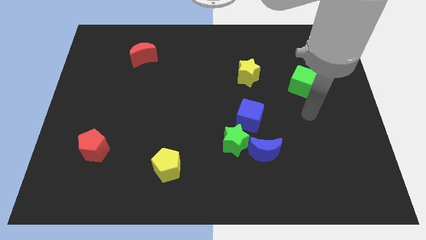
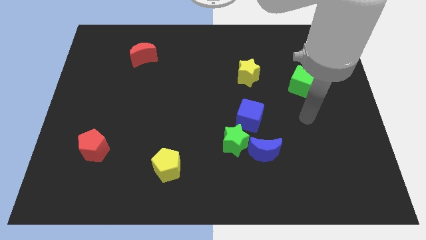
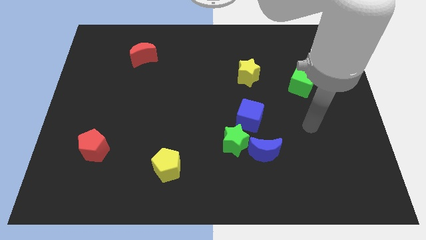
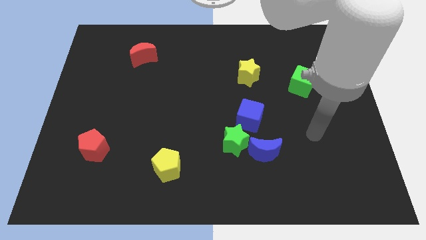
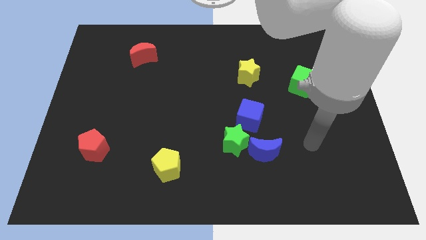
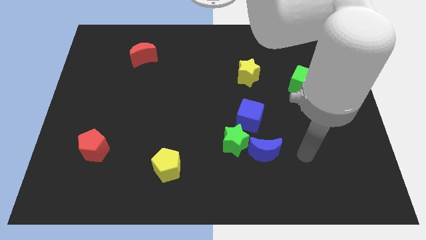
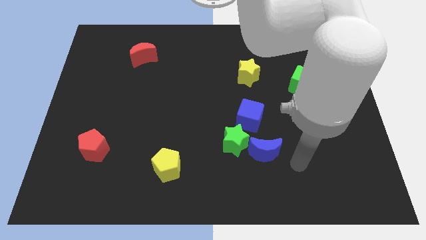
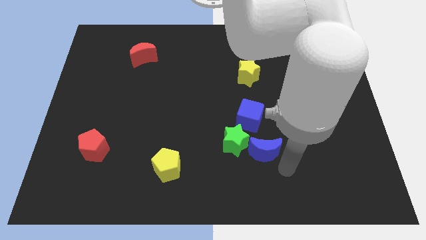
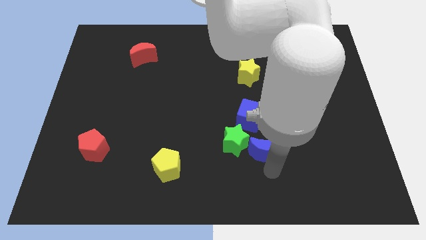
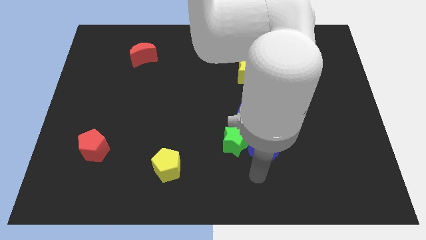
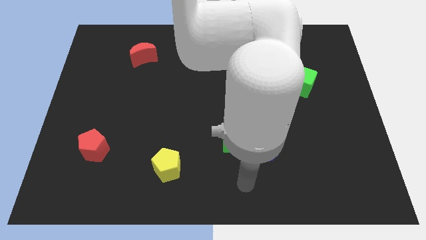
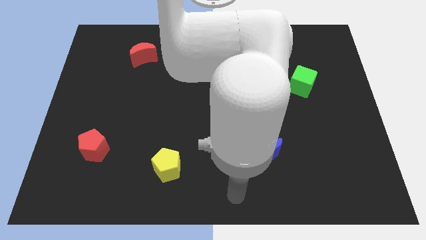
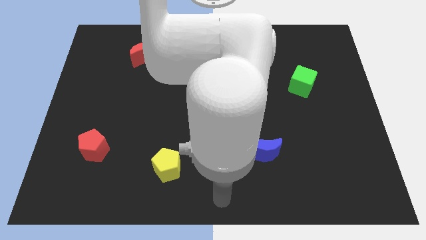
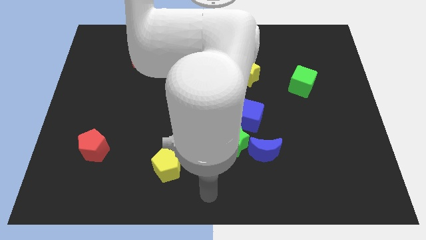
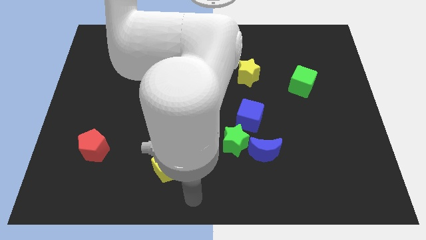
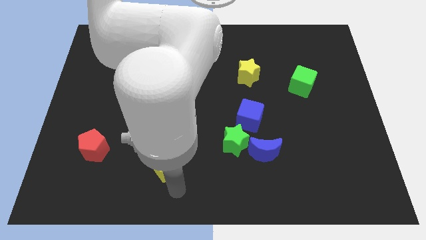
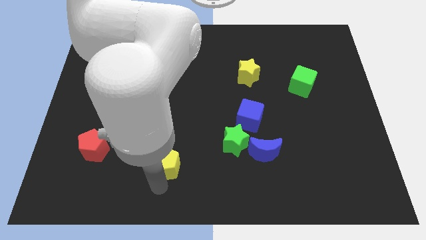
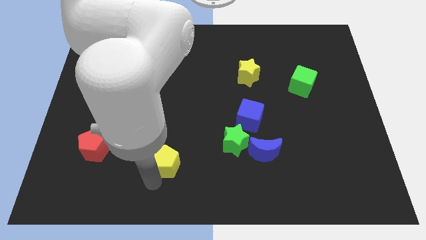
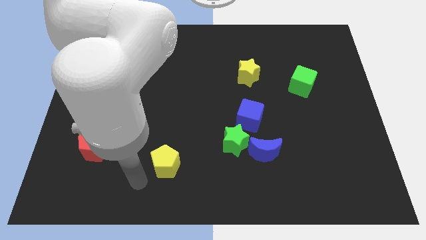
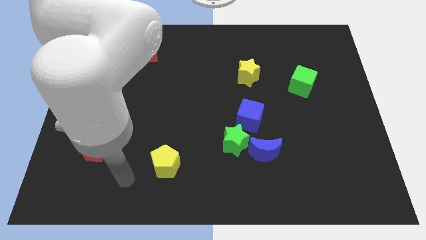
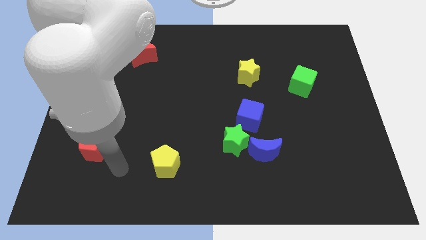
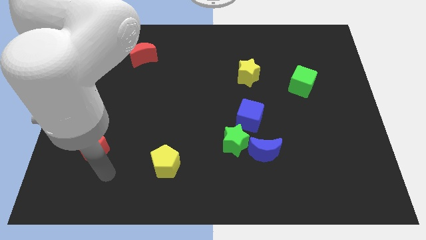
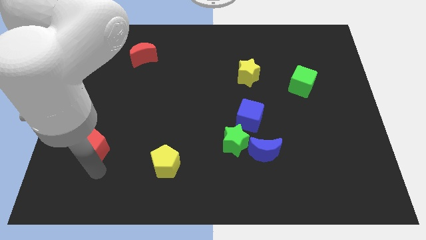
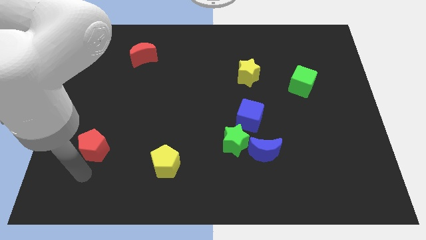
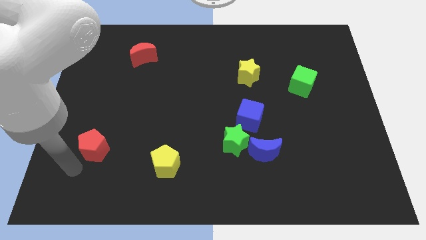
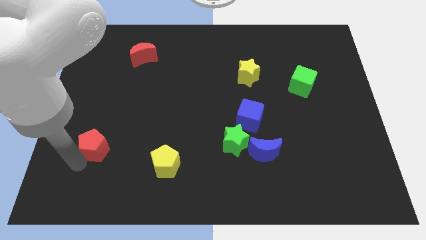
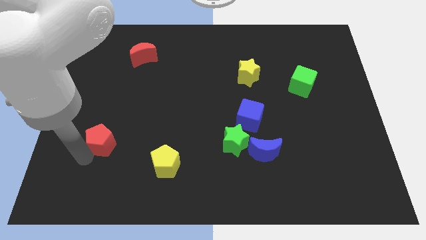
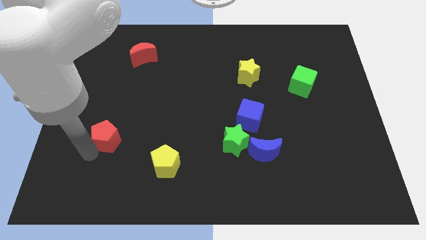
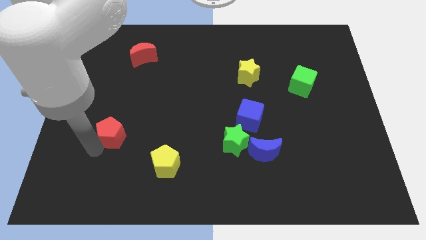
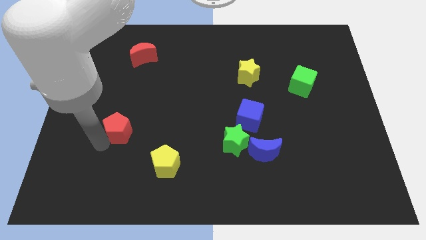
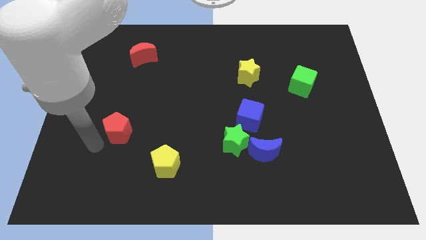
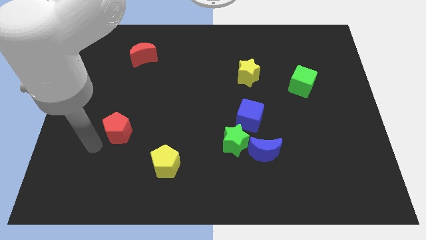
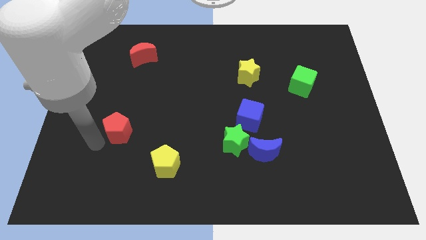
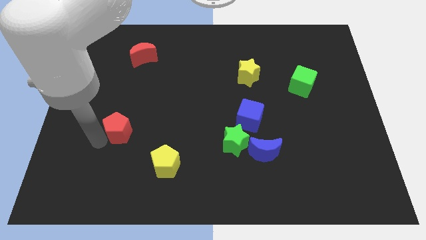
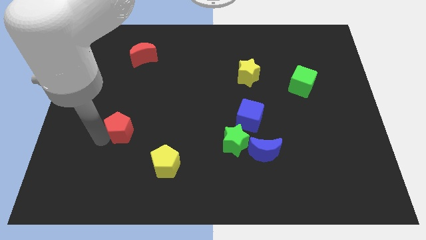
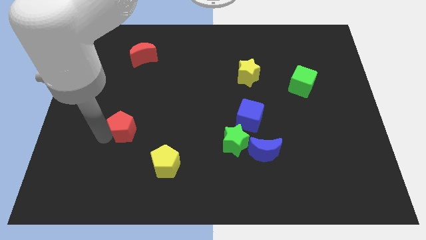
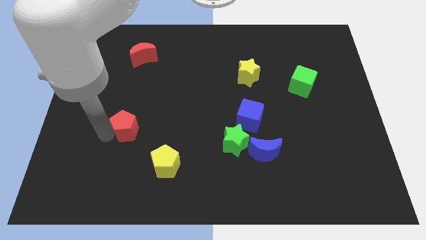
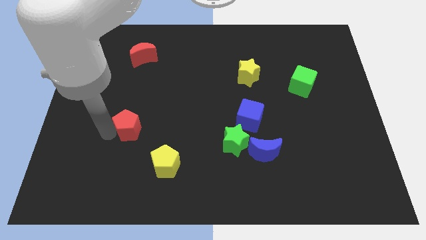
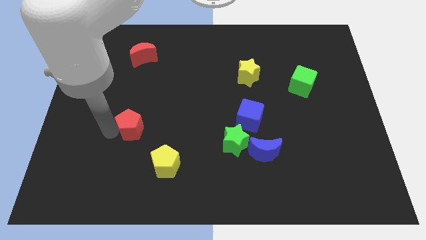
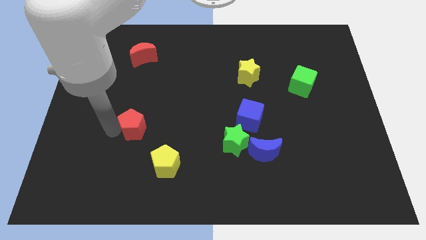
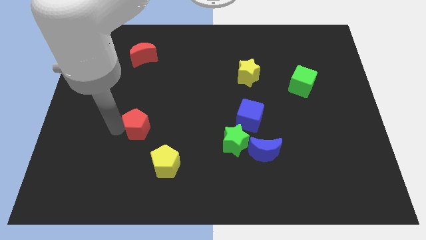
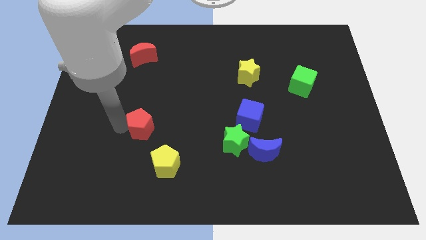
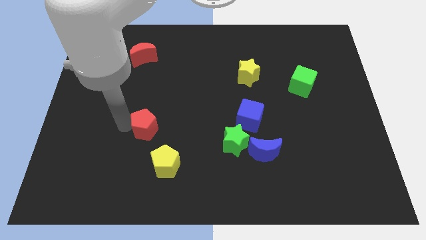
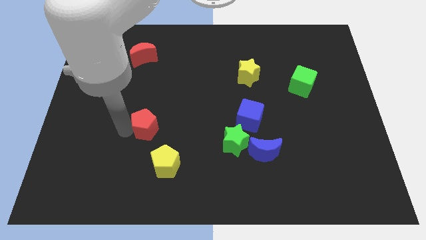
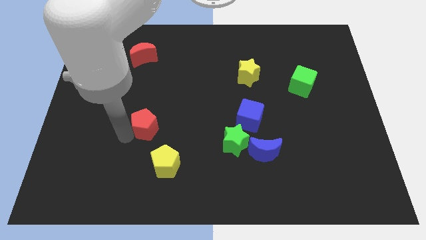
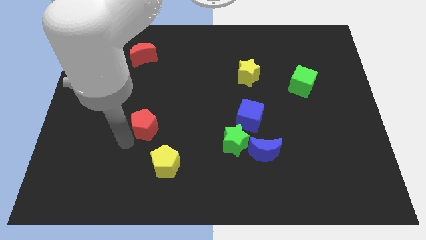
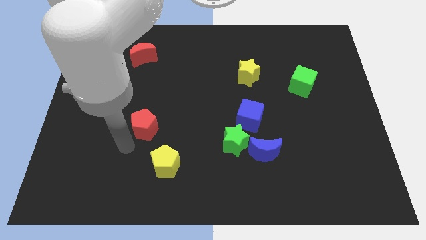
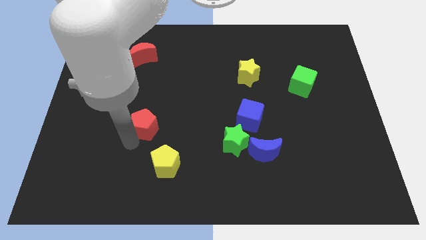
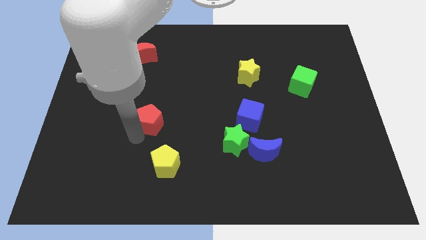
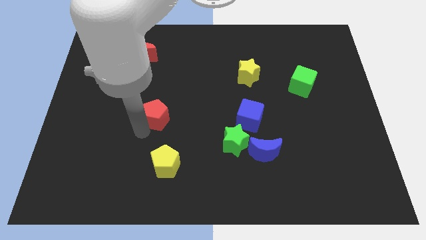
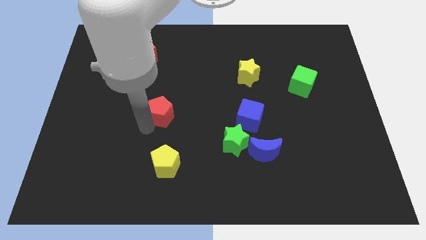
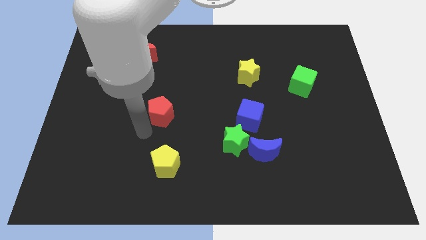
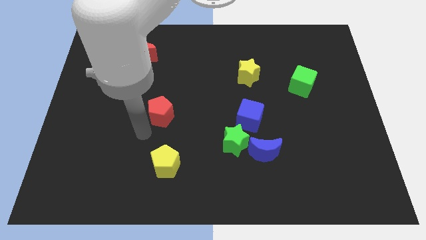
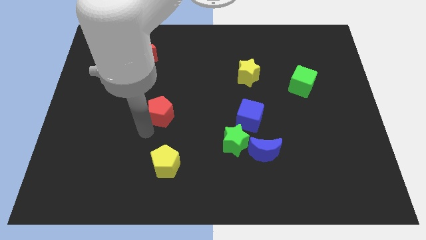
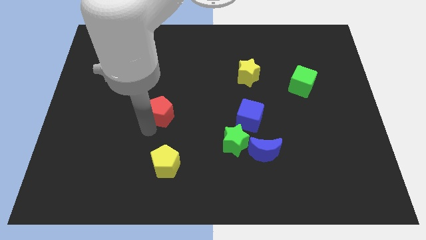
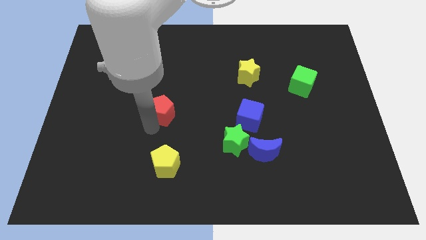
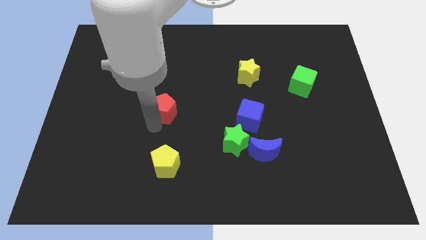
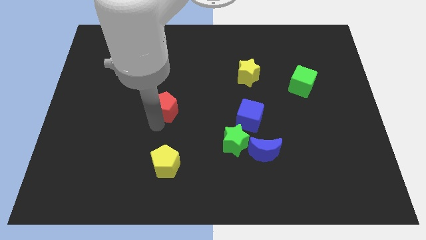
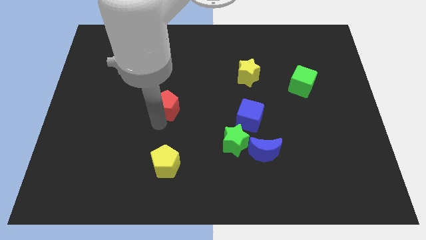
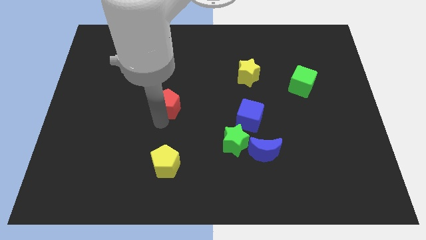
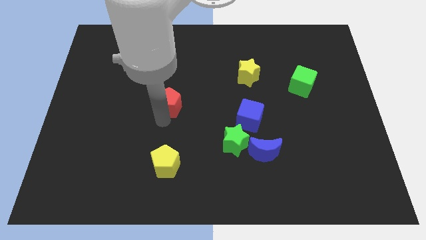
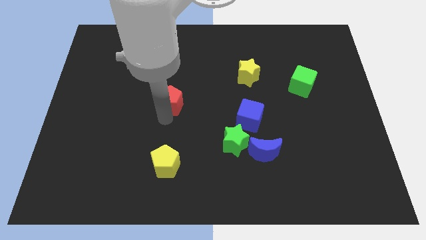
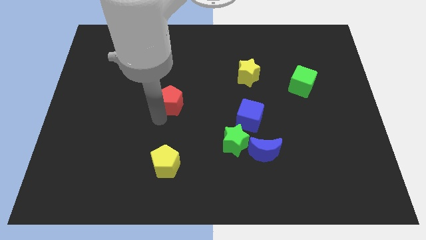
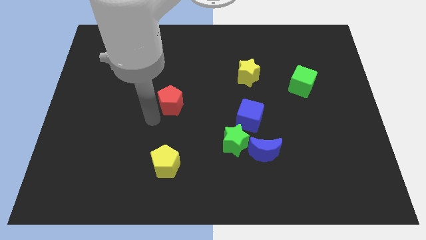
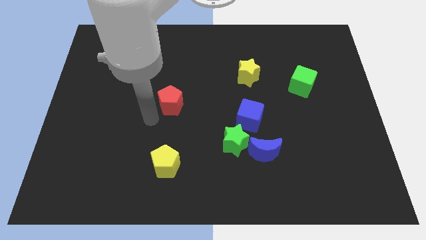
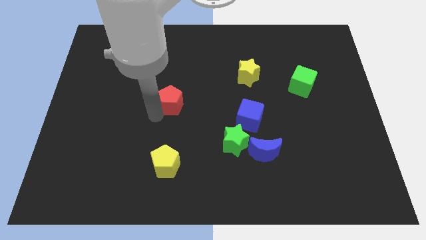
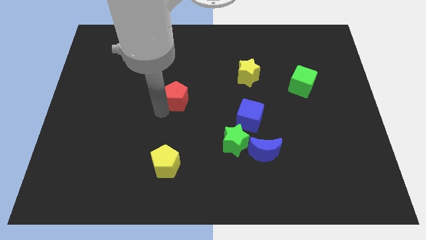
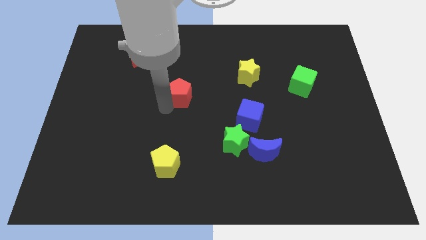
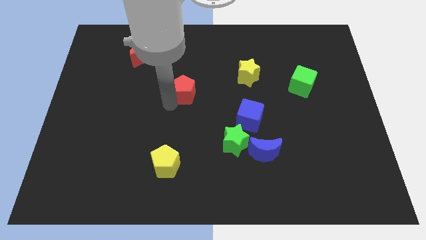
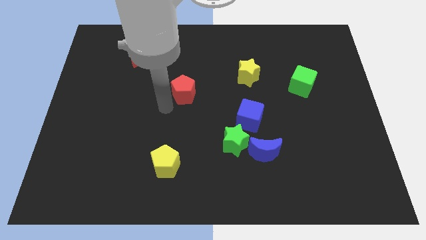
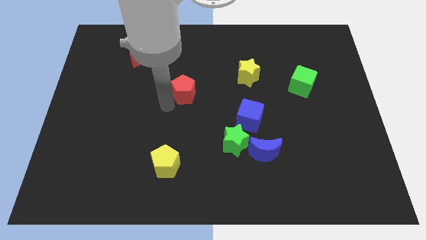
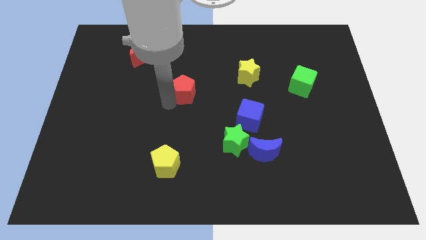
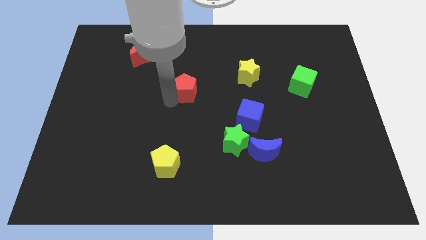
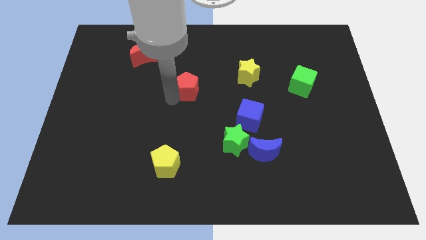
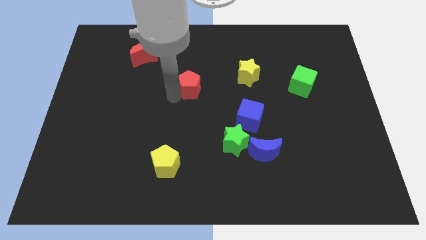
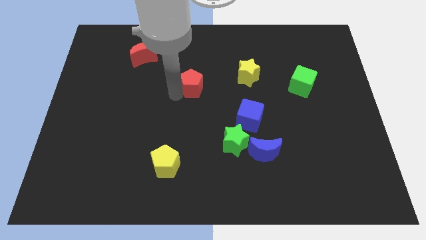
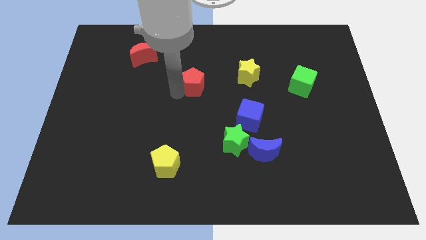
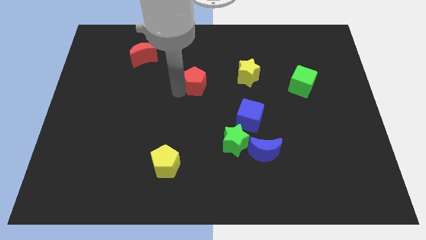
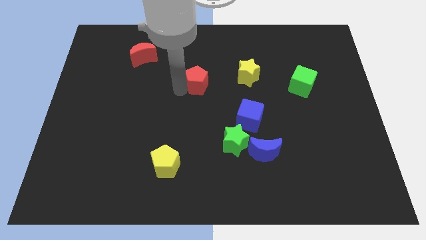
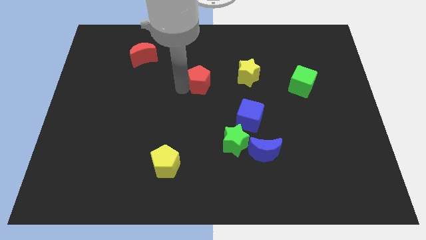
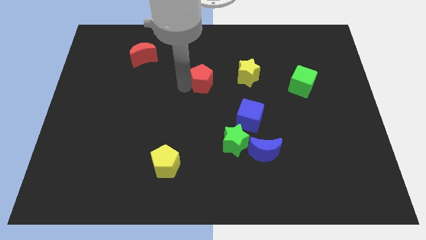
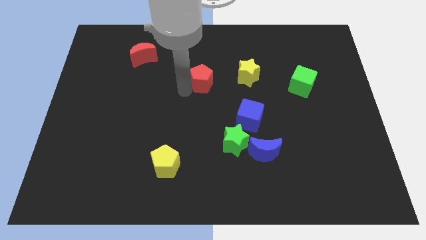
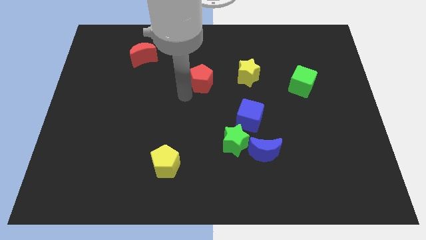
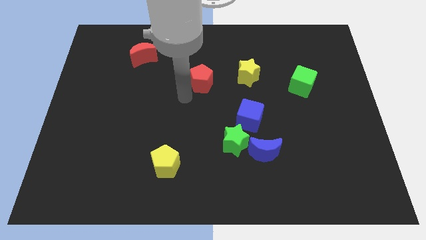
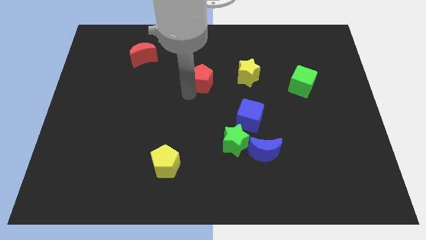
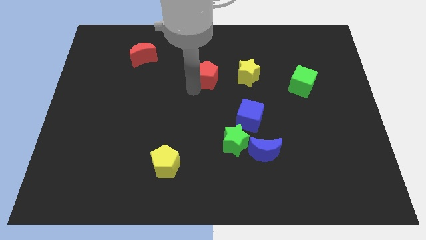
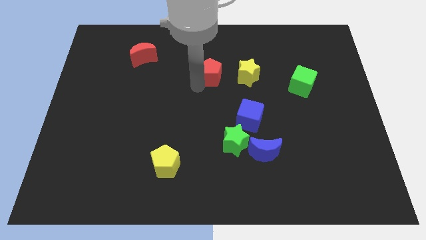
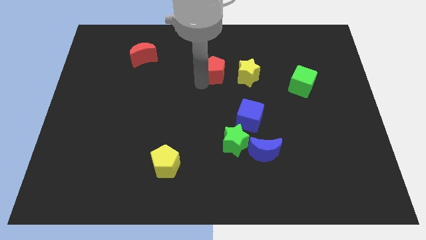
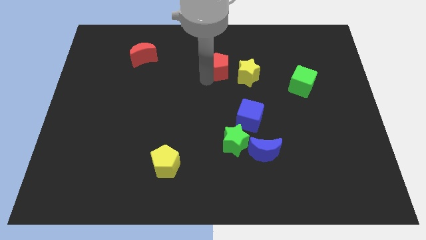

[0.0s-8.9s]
slide the red pentagon diagonally up and to the left of the yellow star
